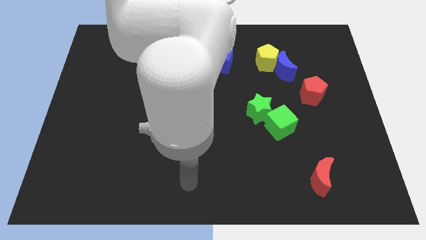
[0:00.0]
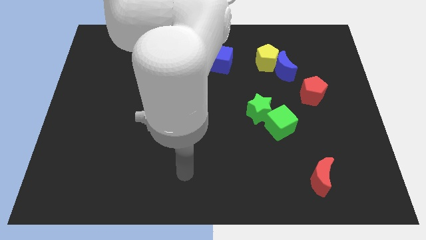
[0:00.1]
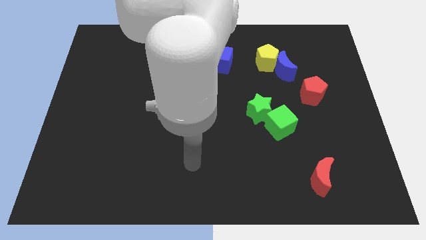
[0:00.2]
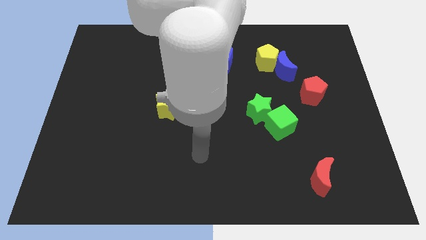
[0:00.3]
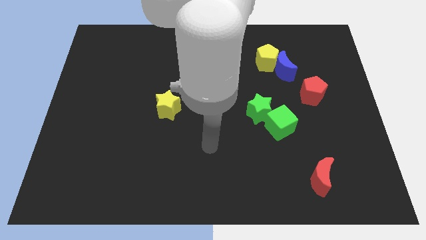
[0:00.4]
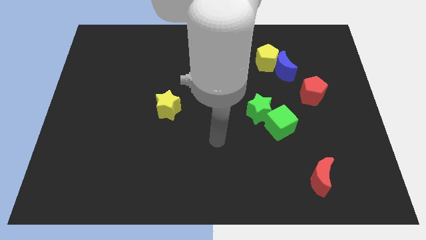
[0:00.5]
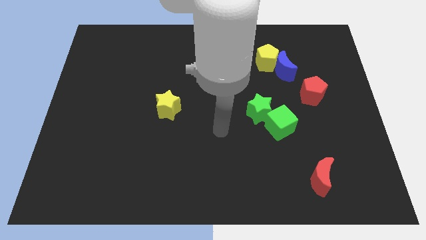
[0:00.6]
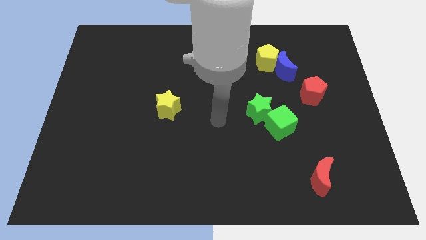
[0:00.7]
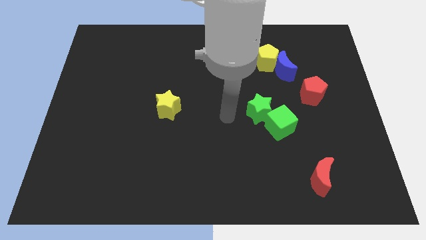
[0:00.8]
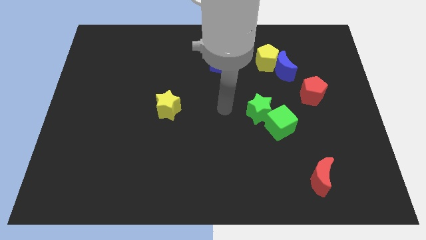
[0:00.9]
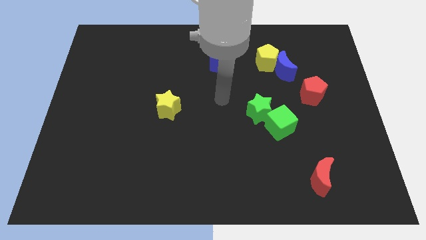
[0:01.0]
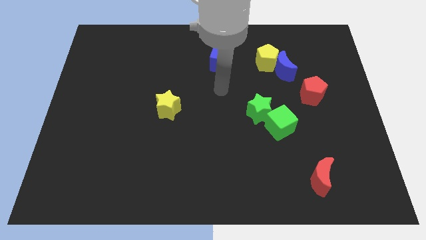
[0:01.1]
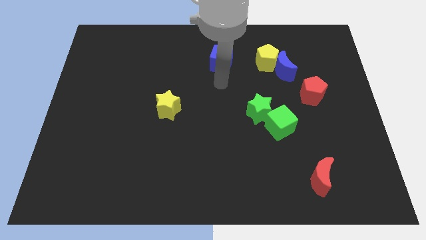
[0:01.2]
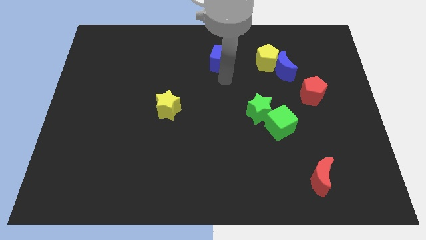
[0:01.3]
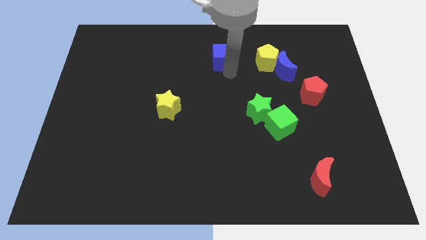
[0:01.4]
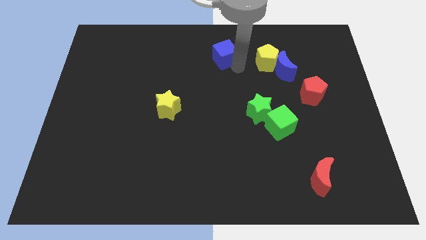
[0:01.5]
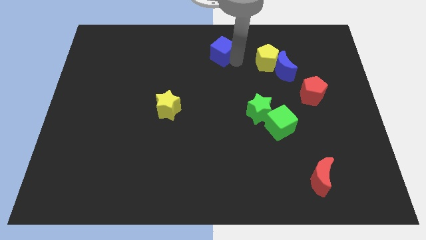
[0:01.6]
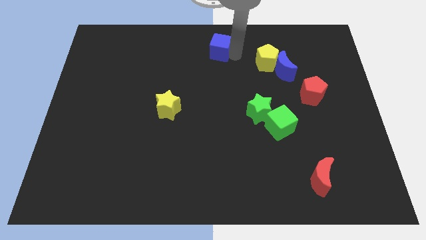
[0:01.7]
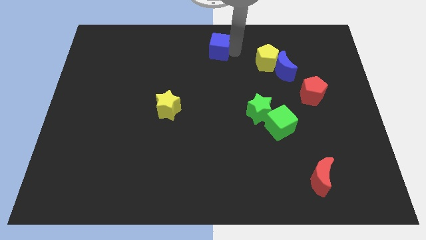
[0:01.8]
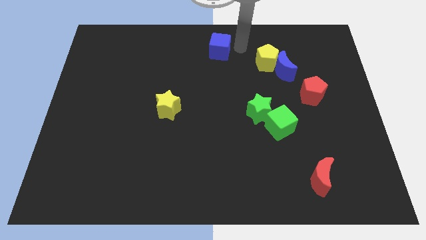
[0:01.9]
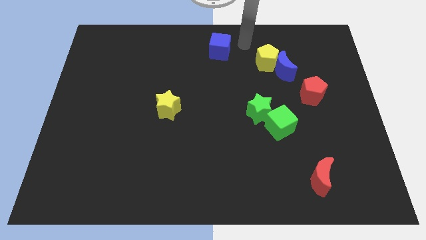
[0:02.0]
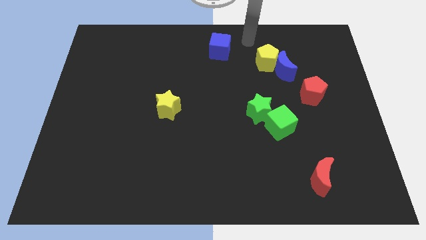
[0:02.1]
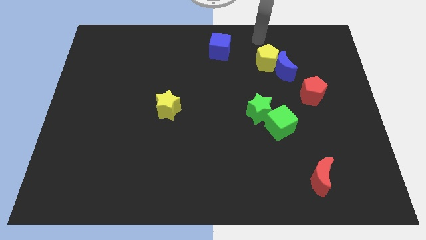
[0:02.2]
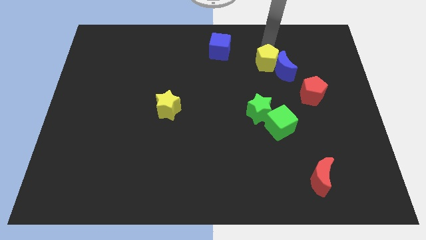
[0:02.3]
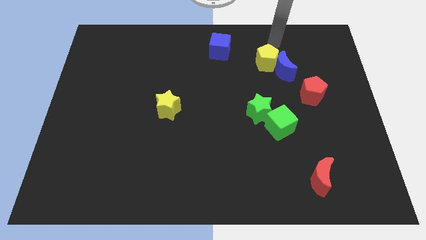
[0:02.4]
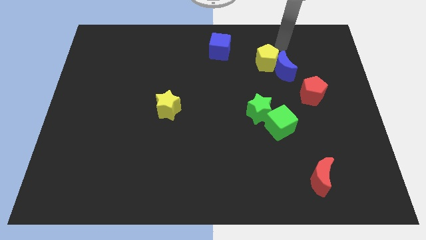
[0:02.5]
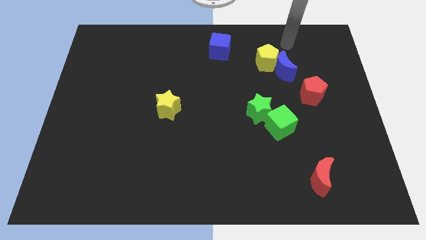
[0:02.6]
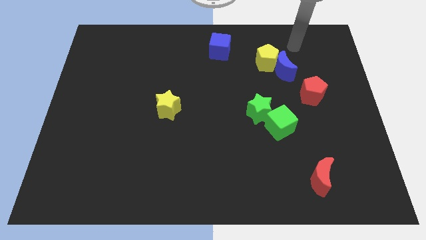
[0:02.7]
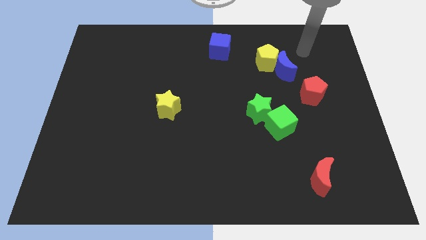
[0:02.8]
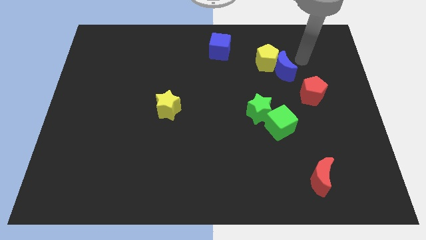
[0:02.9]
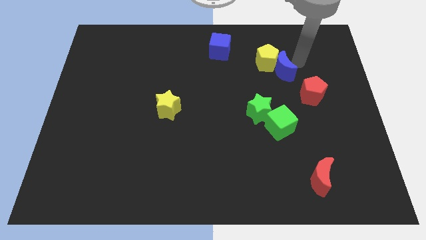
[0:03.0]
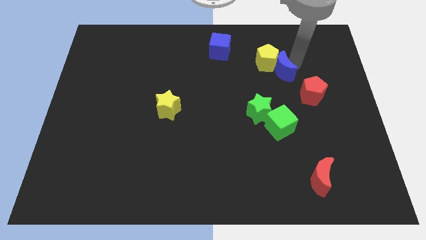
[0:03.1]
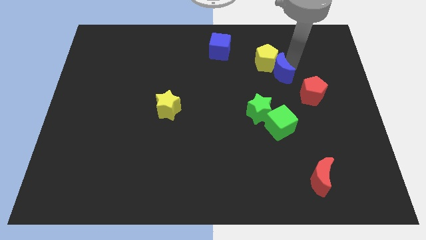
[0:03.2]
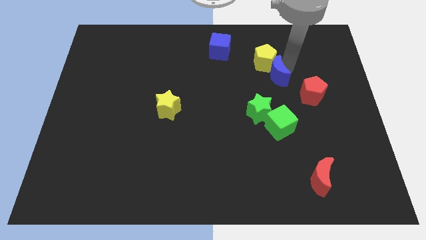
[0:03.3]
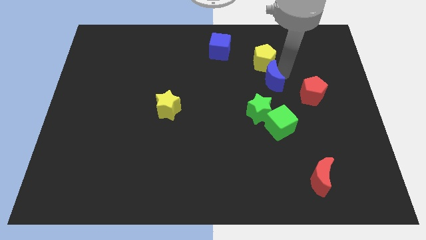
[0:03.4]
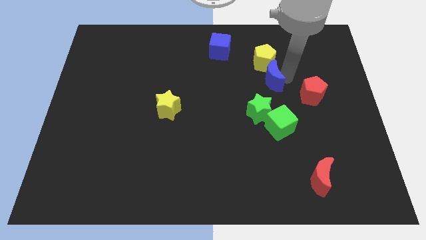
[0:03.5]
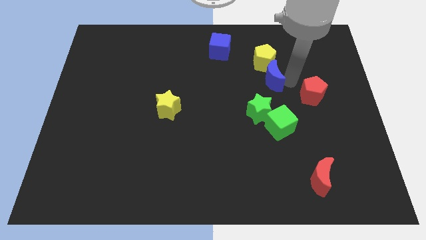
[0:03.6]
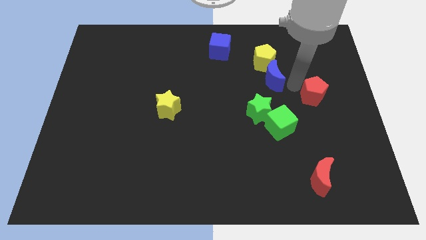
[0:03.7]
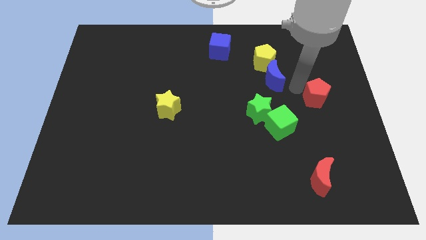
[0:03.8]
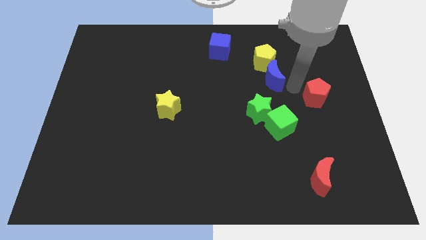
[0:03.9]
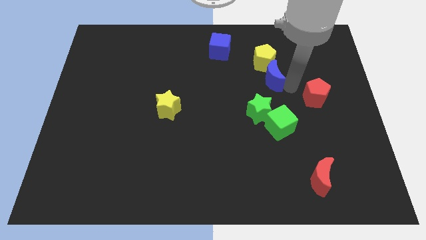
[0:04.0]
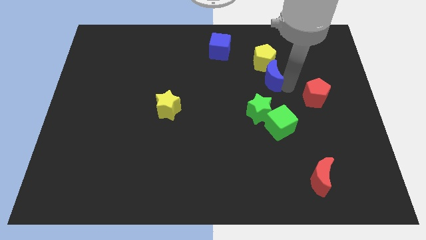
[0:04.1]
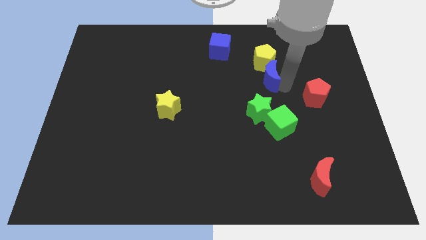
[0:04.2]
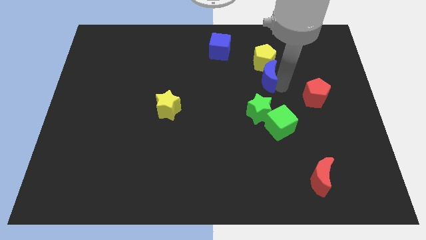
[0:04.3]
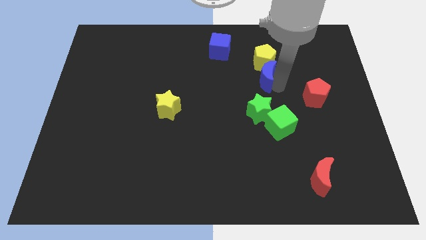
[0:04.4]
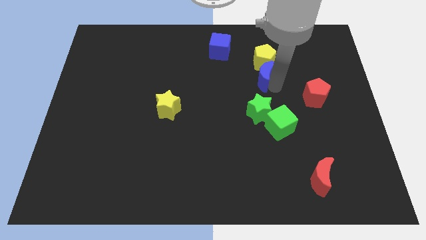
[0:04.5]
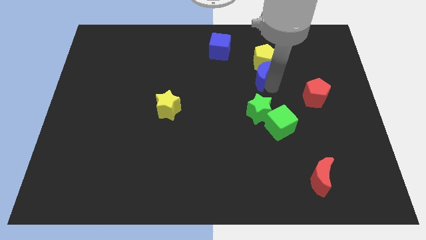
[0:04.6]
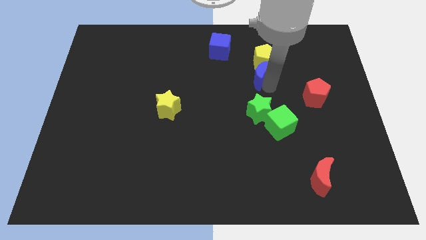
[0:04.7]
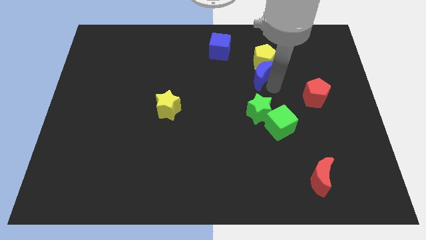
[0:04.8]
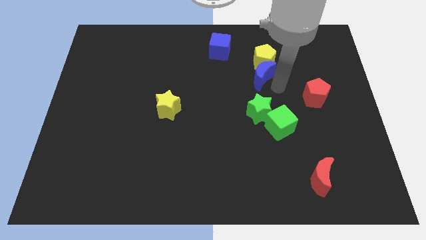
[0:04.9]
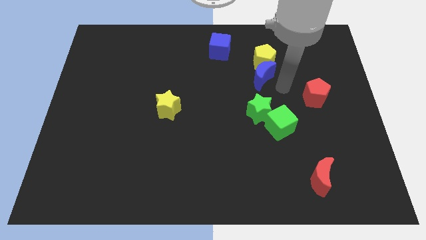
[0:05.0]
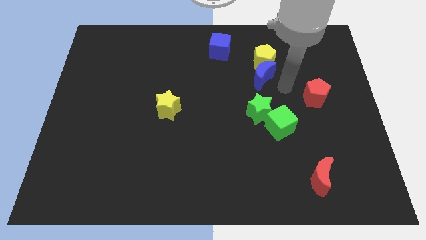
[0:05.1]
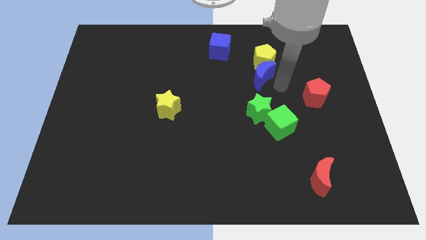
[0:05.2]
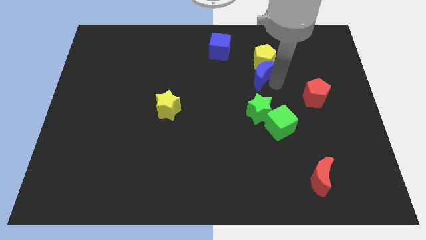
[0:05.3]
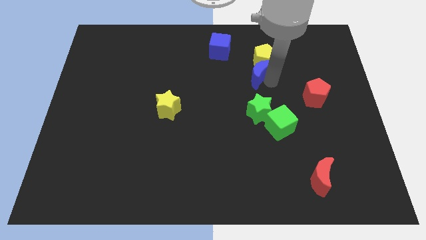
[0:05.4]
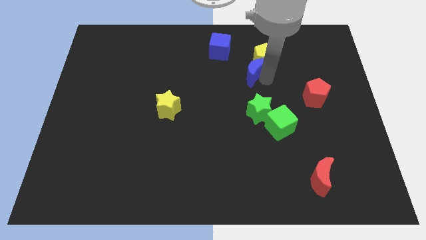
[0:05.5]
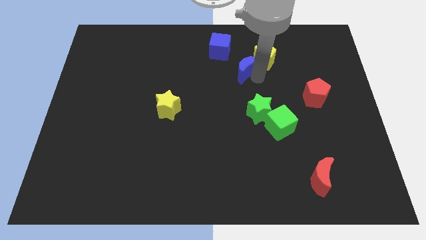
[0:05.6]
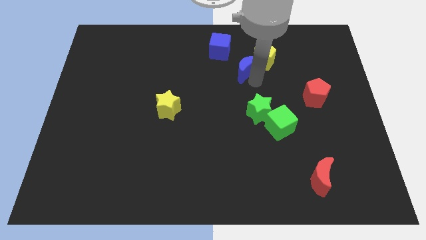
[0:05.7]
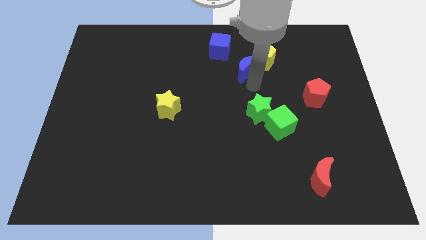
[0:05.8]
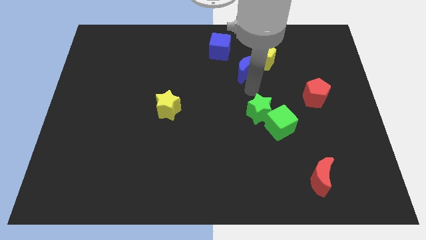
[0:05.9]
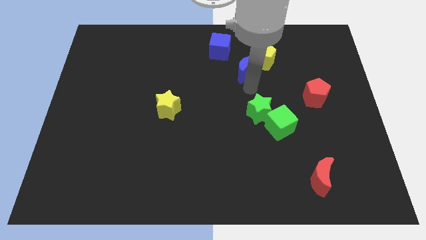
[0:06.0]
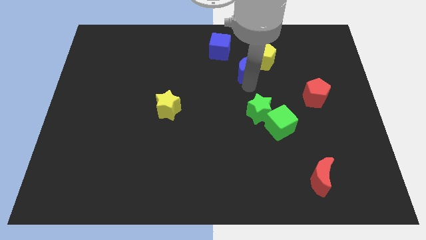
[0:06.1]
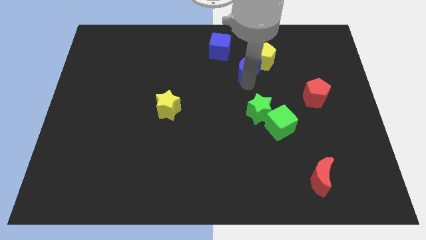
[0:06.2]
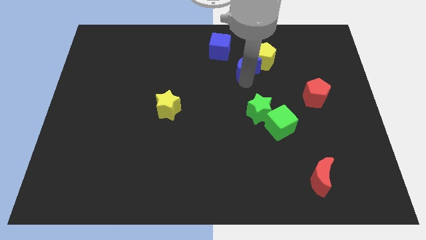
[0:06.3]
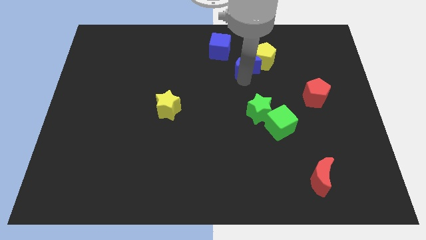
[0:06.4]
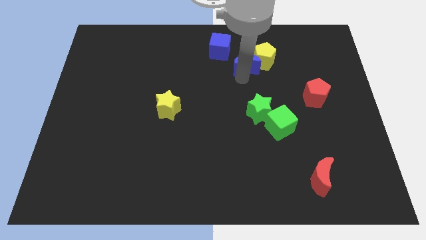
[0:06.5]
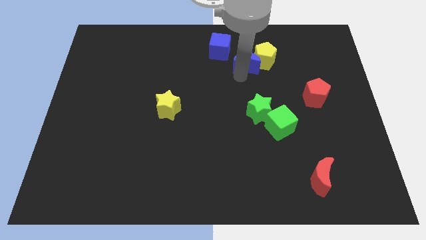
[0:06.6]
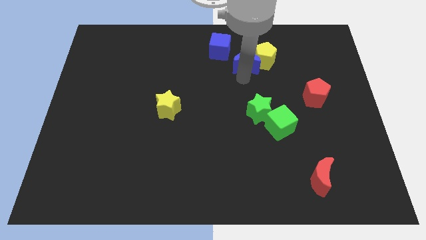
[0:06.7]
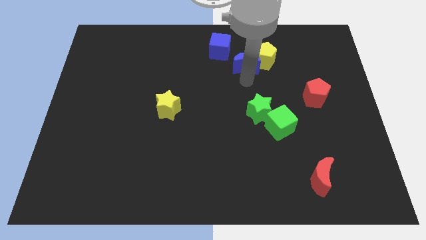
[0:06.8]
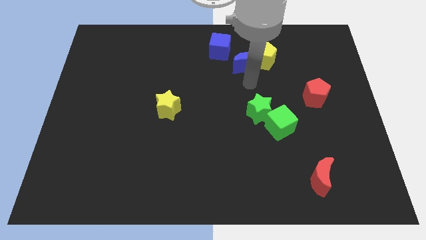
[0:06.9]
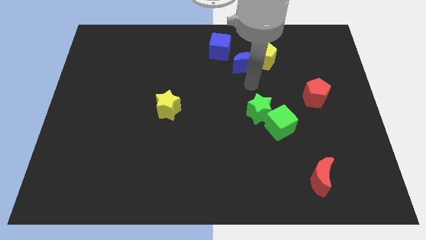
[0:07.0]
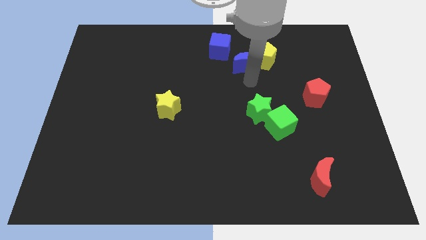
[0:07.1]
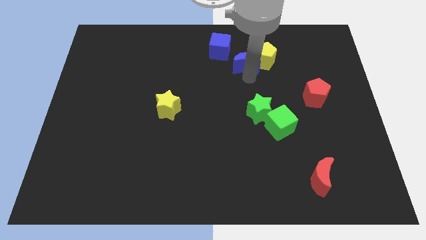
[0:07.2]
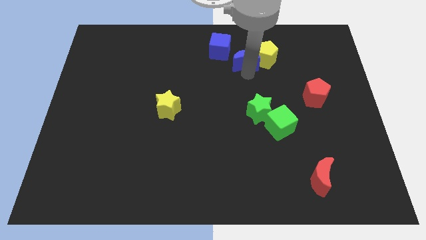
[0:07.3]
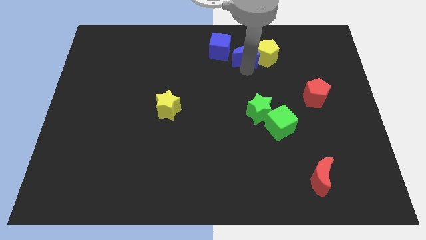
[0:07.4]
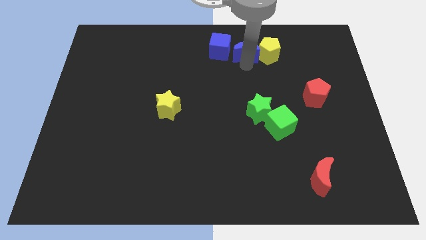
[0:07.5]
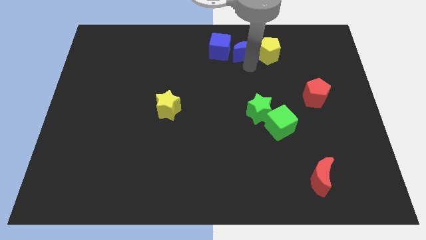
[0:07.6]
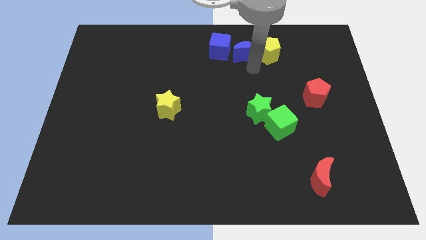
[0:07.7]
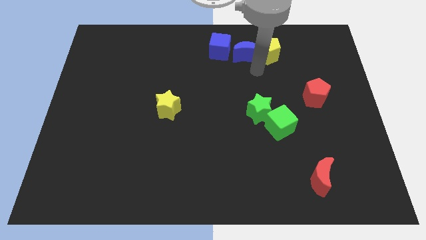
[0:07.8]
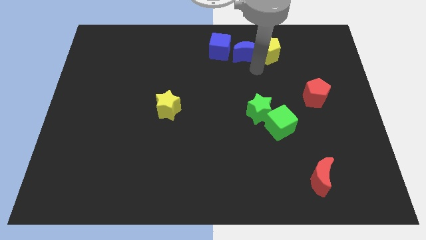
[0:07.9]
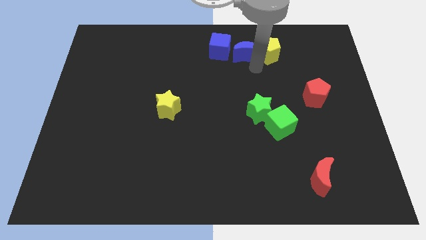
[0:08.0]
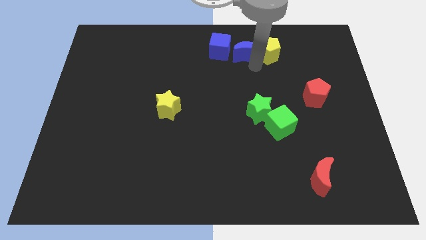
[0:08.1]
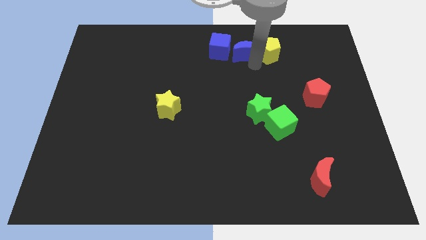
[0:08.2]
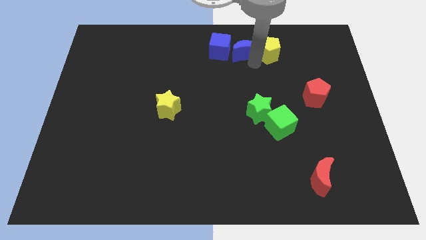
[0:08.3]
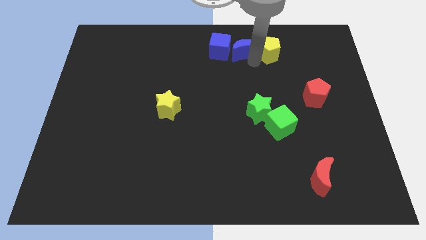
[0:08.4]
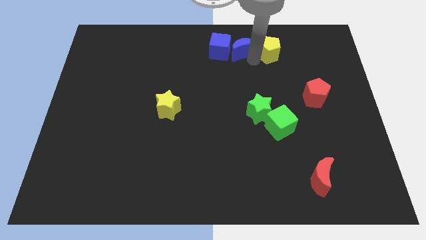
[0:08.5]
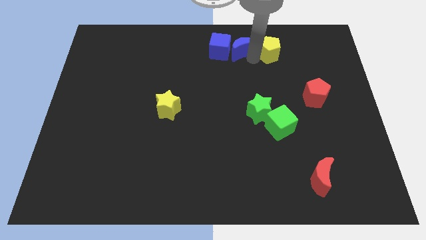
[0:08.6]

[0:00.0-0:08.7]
put the blue moon to the top
